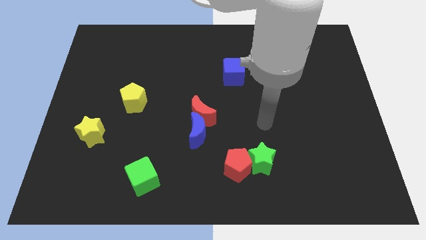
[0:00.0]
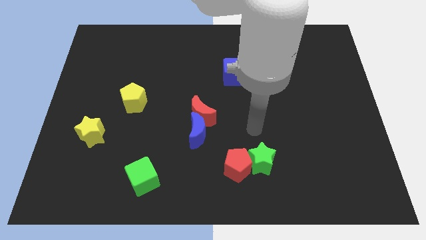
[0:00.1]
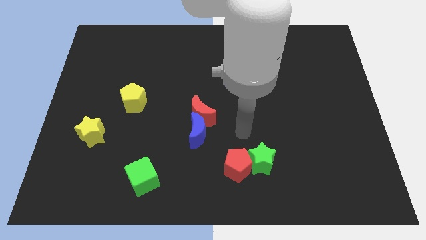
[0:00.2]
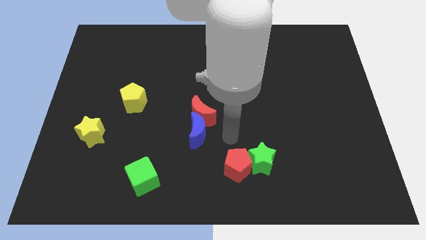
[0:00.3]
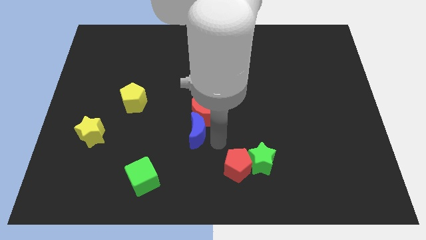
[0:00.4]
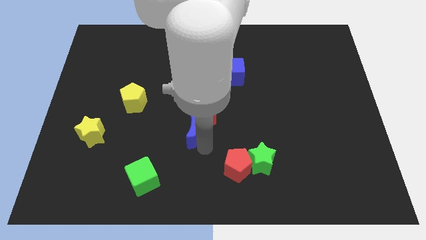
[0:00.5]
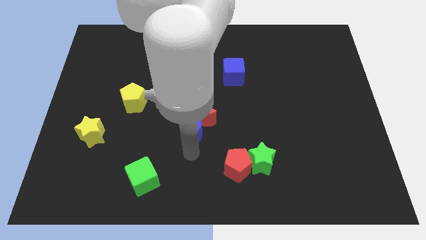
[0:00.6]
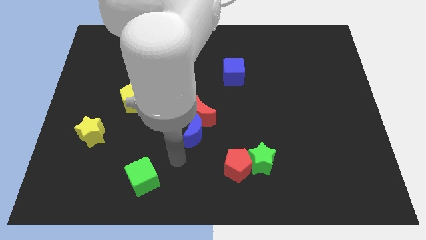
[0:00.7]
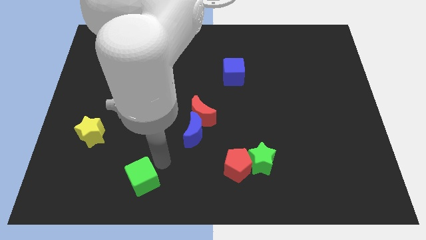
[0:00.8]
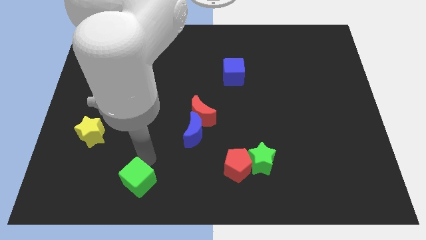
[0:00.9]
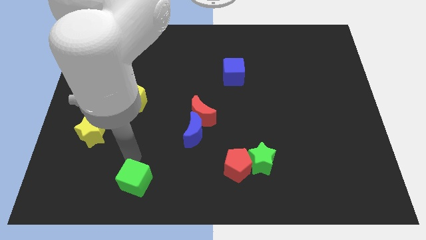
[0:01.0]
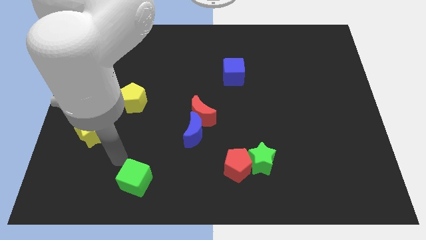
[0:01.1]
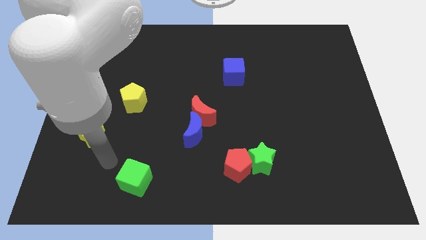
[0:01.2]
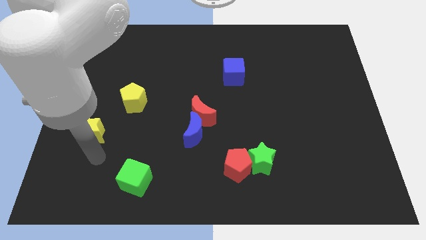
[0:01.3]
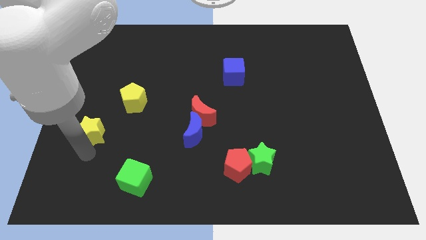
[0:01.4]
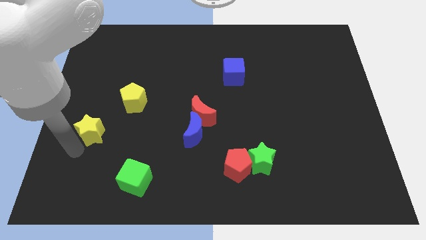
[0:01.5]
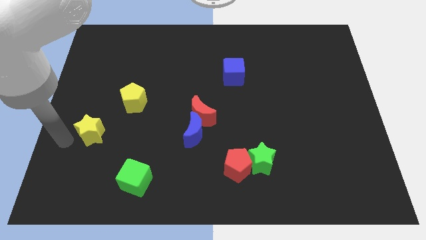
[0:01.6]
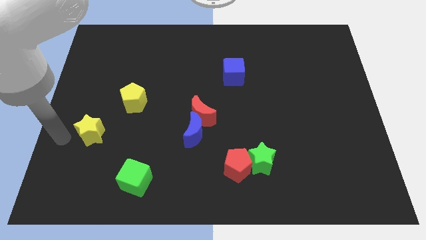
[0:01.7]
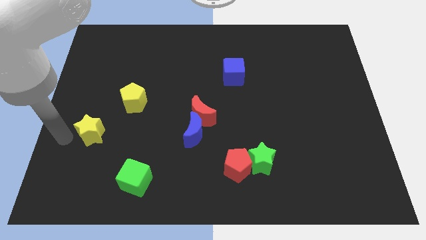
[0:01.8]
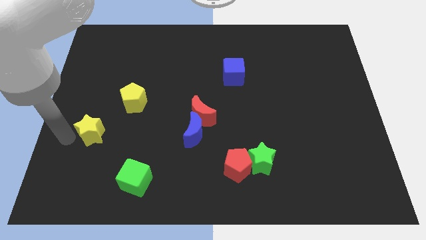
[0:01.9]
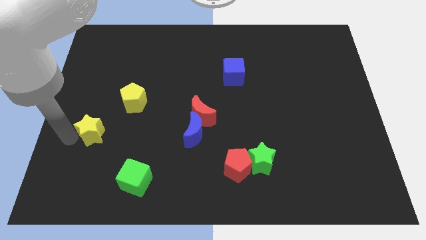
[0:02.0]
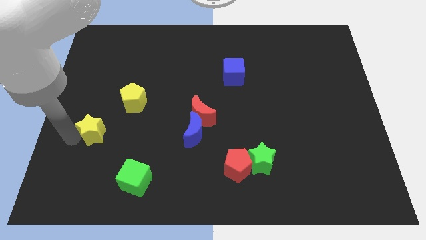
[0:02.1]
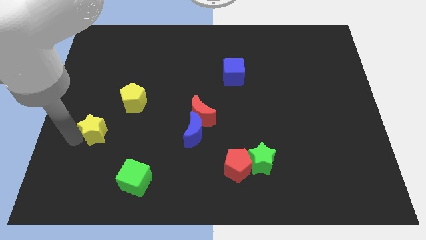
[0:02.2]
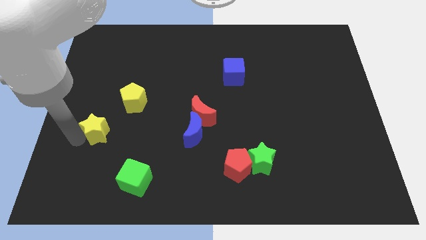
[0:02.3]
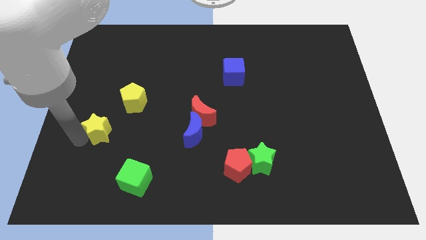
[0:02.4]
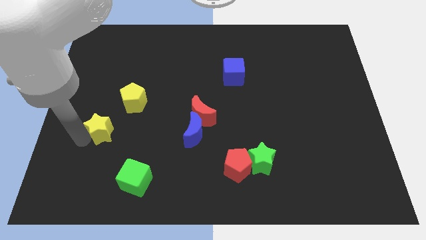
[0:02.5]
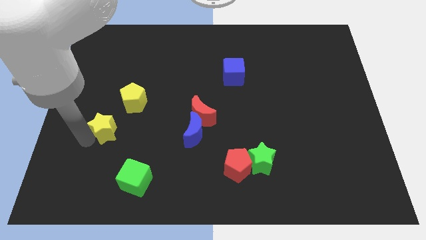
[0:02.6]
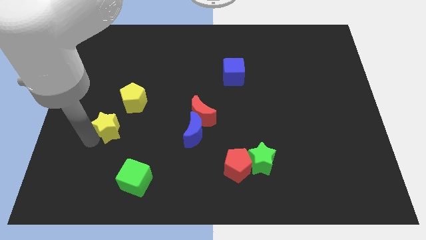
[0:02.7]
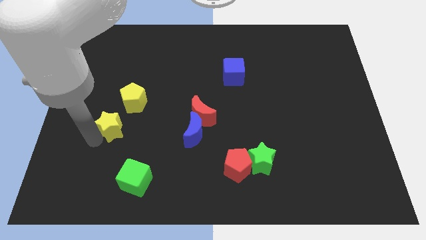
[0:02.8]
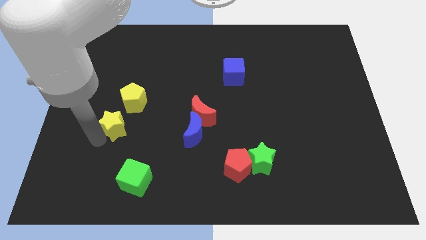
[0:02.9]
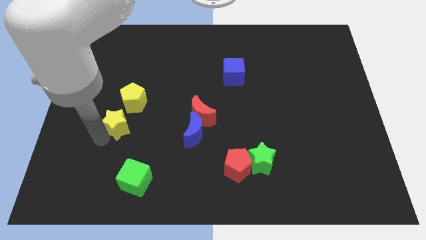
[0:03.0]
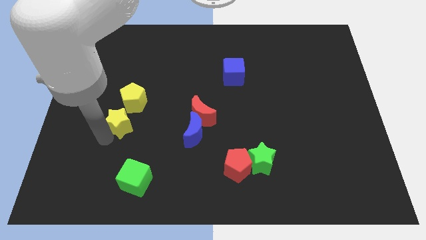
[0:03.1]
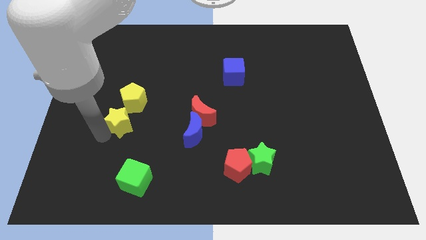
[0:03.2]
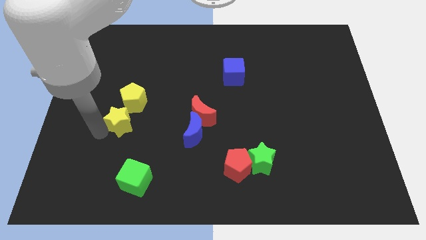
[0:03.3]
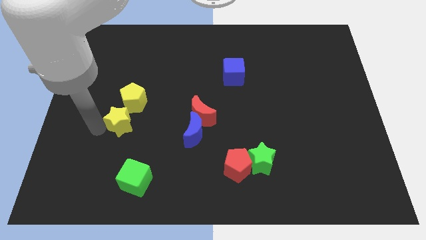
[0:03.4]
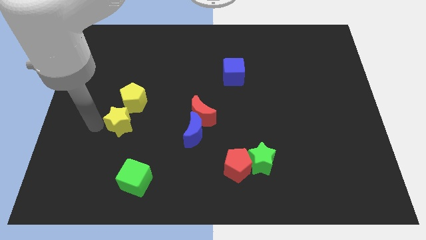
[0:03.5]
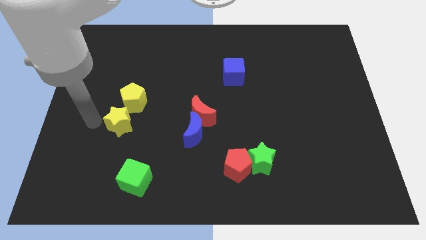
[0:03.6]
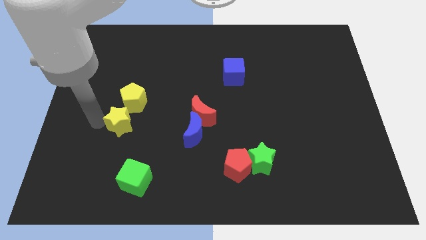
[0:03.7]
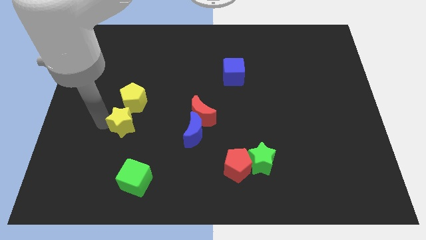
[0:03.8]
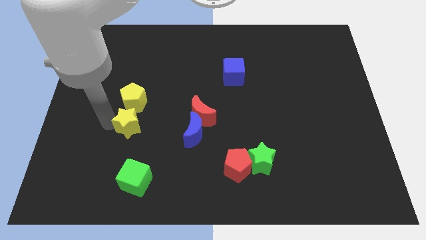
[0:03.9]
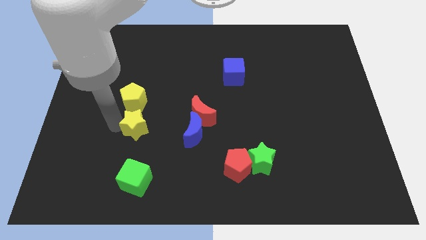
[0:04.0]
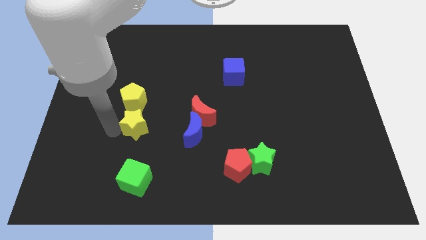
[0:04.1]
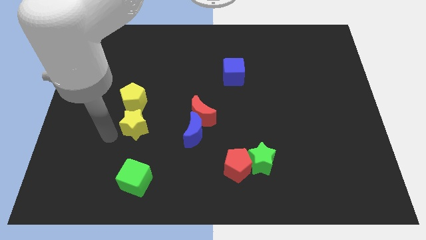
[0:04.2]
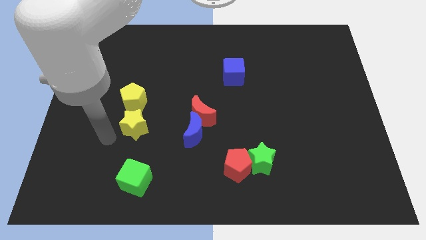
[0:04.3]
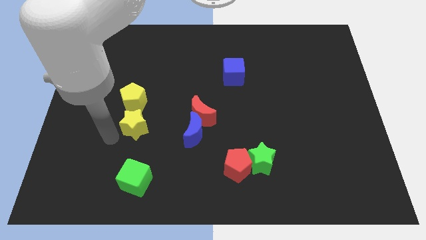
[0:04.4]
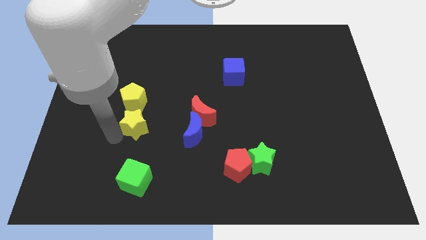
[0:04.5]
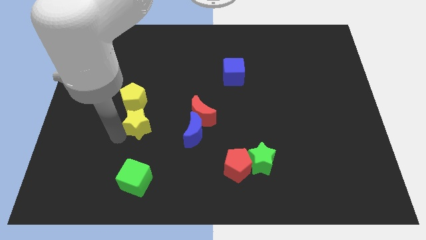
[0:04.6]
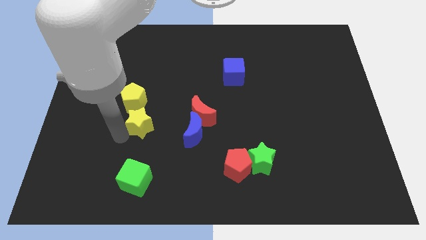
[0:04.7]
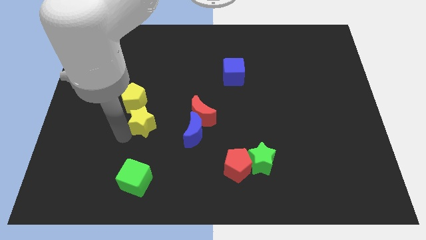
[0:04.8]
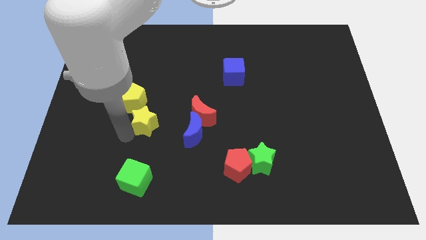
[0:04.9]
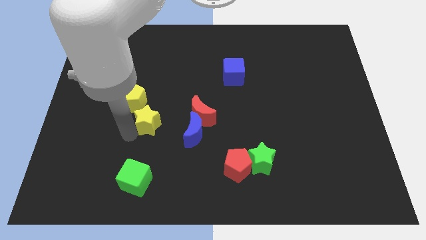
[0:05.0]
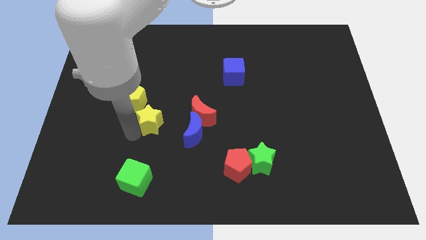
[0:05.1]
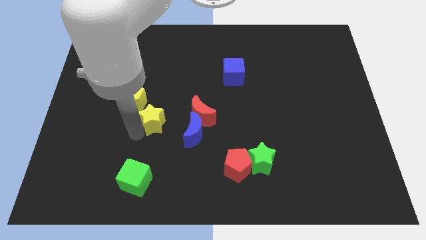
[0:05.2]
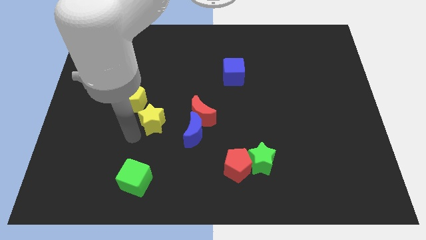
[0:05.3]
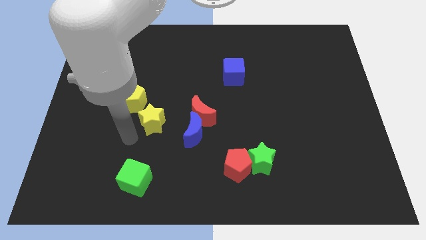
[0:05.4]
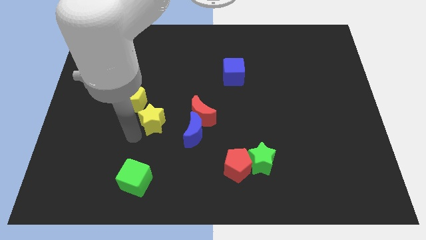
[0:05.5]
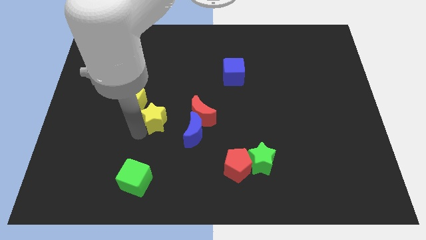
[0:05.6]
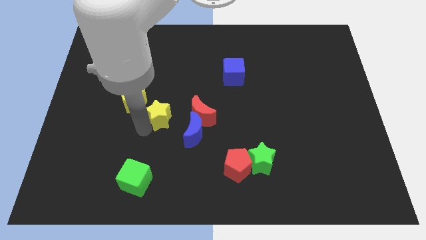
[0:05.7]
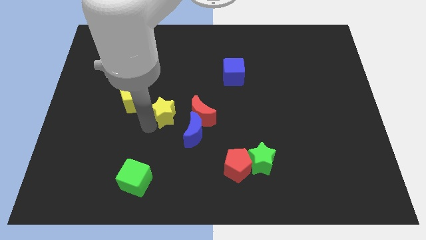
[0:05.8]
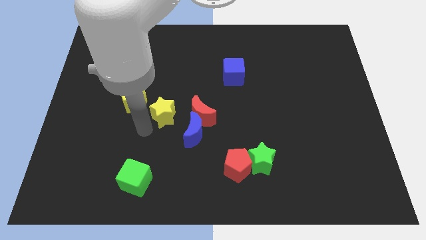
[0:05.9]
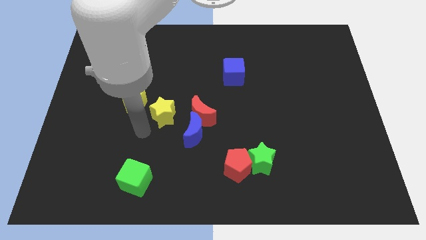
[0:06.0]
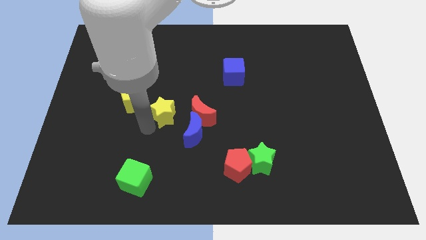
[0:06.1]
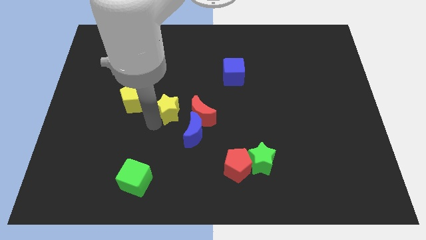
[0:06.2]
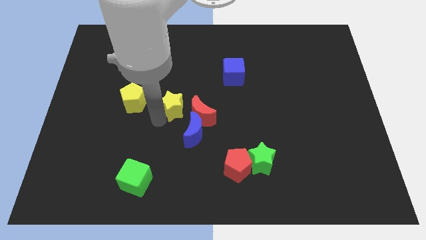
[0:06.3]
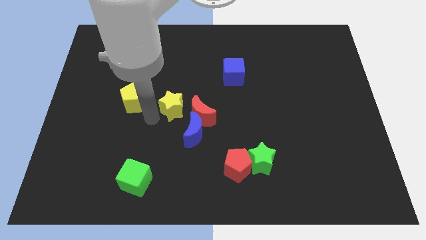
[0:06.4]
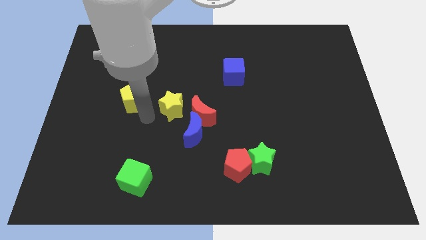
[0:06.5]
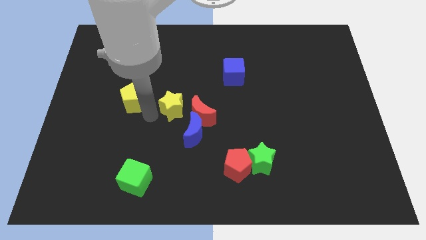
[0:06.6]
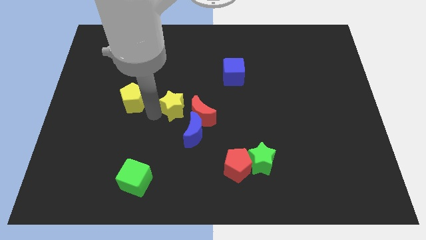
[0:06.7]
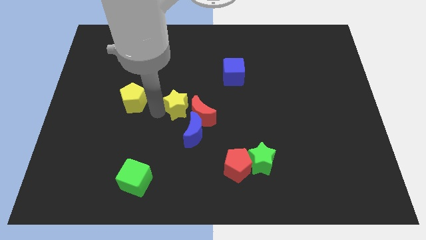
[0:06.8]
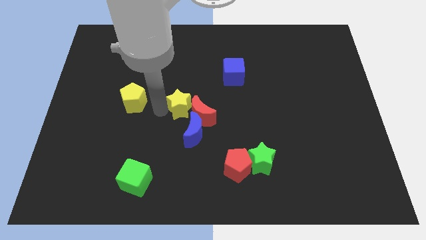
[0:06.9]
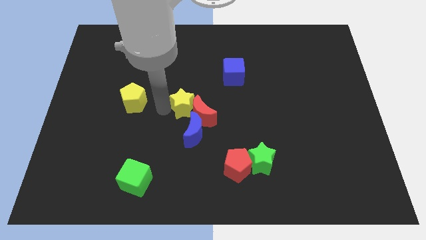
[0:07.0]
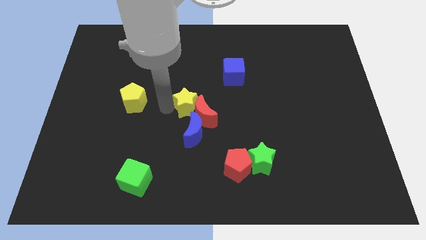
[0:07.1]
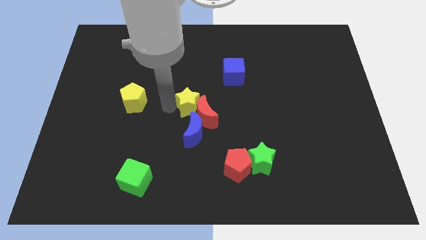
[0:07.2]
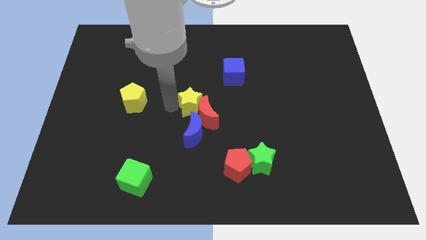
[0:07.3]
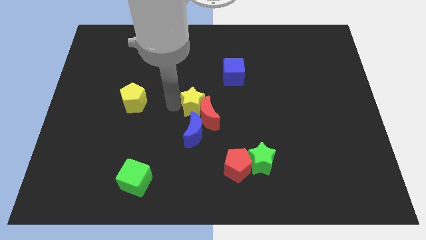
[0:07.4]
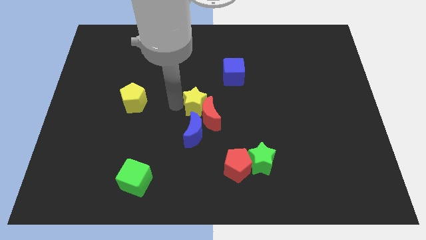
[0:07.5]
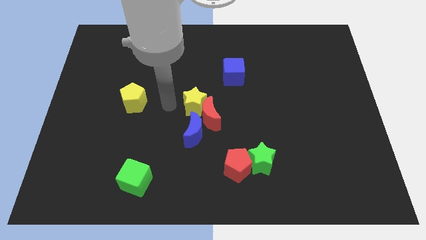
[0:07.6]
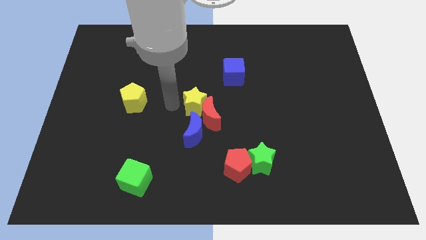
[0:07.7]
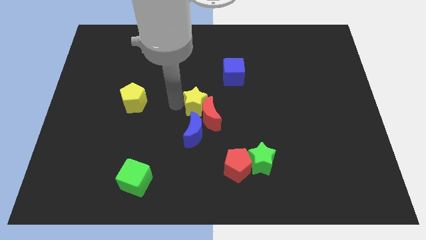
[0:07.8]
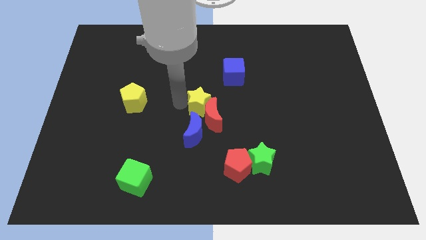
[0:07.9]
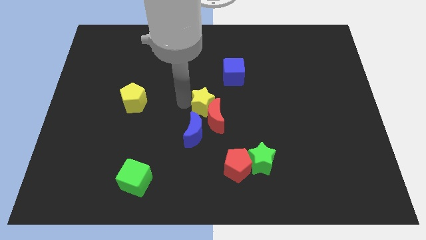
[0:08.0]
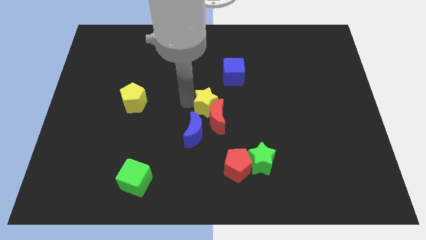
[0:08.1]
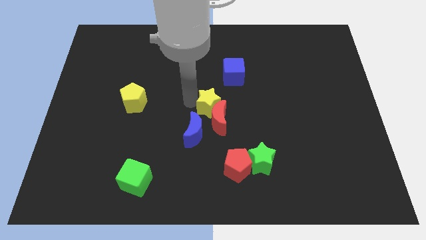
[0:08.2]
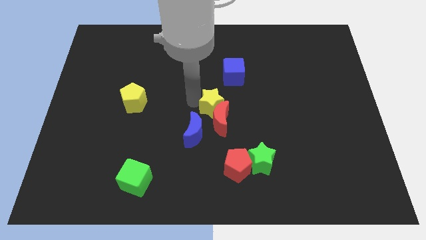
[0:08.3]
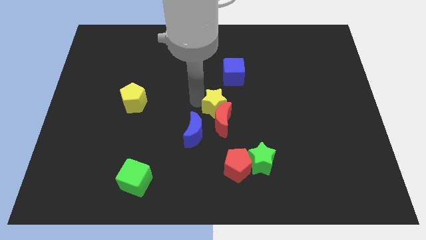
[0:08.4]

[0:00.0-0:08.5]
push the yellow star below the blue cube
